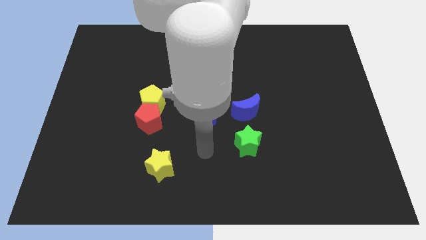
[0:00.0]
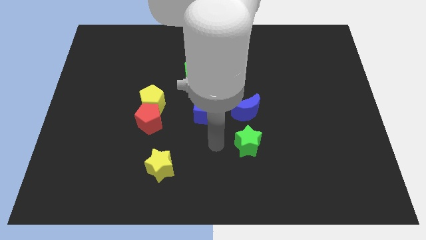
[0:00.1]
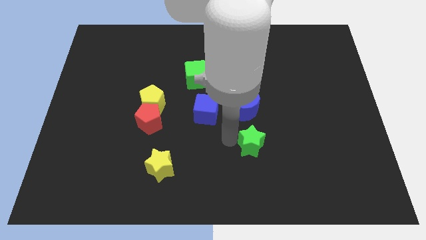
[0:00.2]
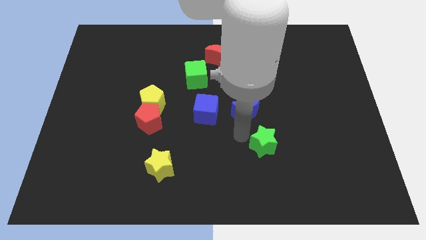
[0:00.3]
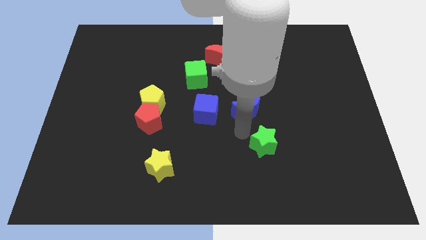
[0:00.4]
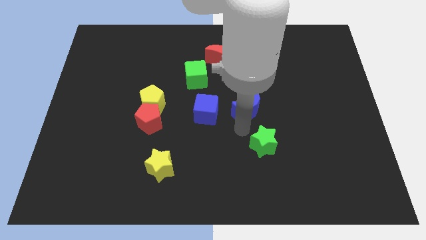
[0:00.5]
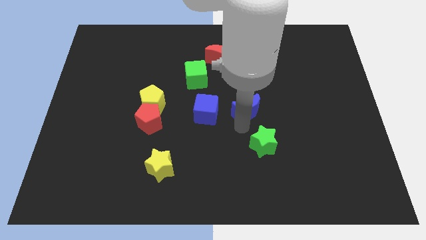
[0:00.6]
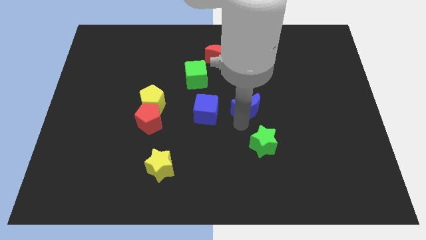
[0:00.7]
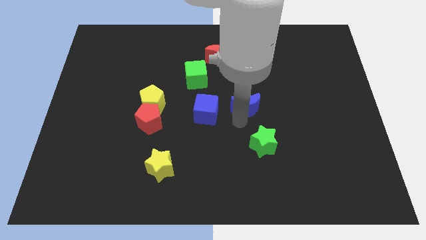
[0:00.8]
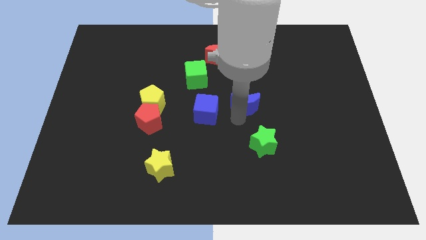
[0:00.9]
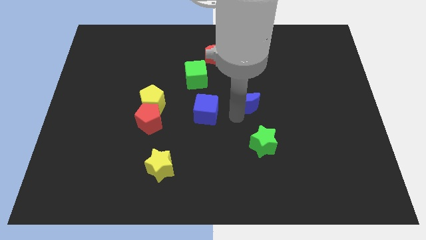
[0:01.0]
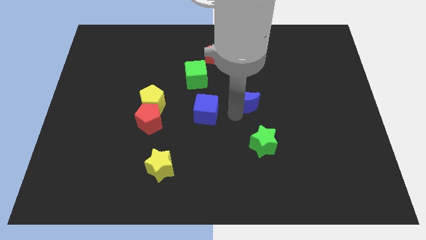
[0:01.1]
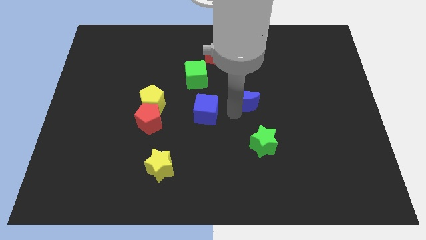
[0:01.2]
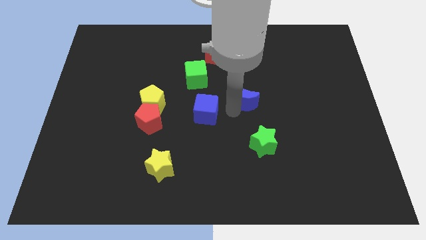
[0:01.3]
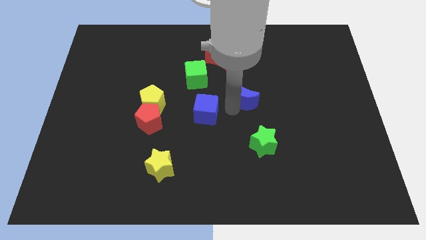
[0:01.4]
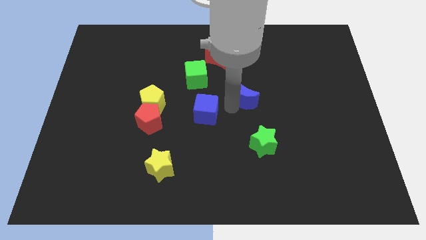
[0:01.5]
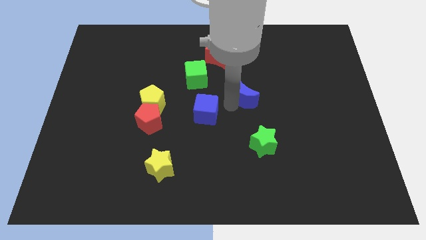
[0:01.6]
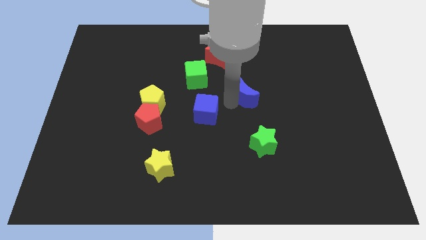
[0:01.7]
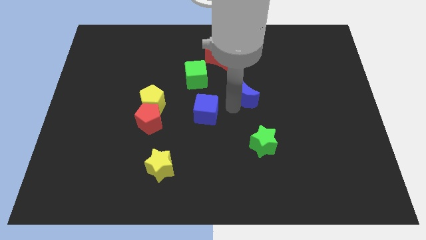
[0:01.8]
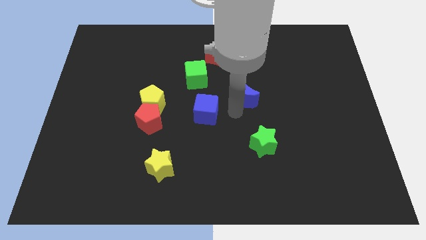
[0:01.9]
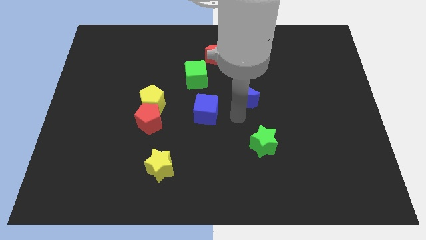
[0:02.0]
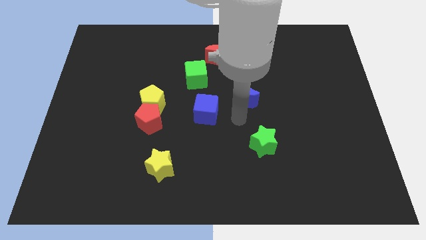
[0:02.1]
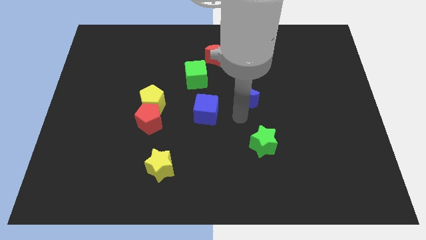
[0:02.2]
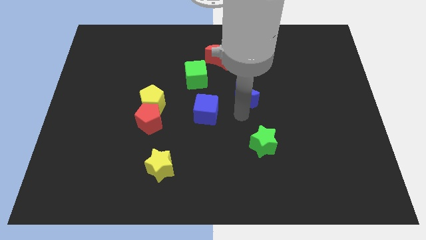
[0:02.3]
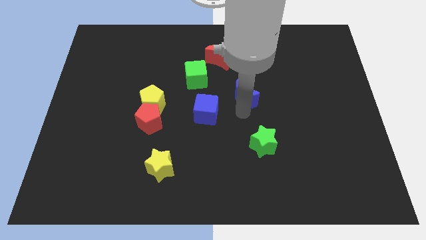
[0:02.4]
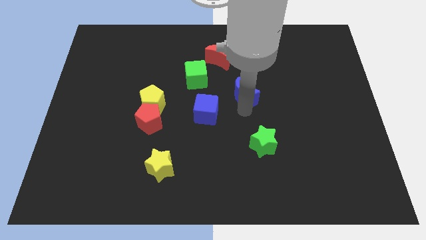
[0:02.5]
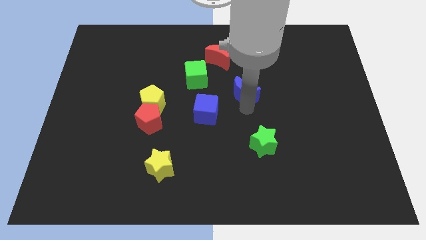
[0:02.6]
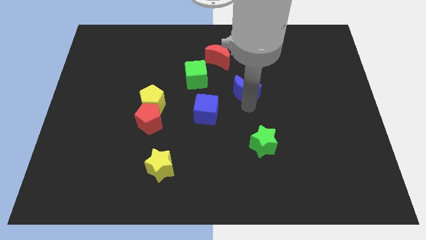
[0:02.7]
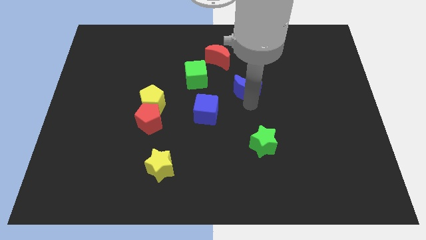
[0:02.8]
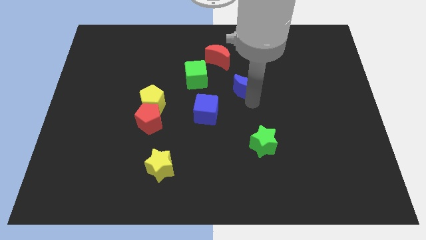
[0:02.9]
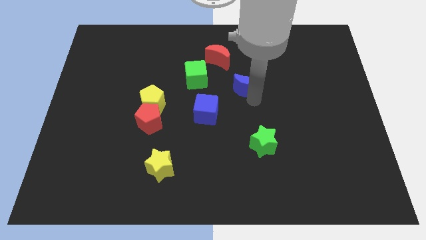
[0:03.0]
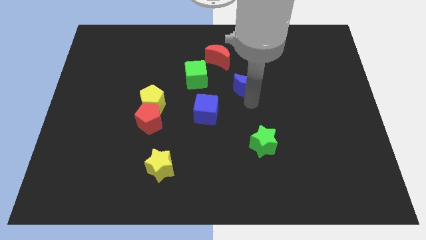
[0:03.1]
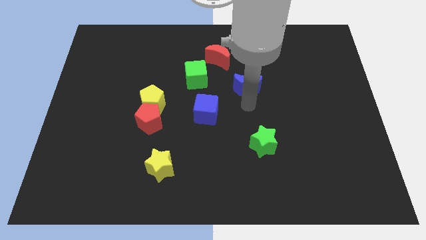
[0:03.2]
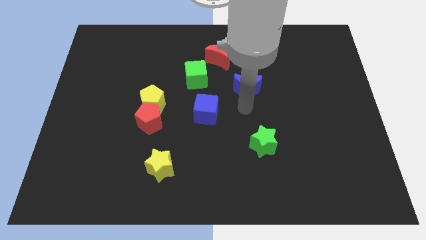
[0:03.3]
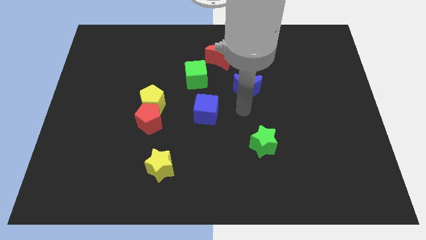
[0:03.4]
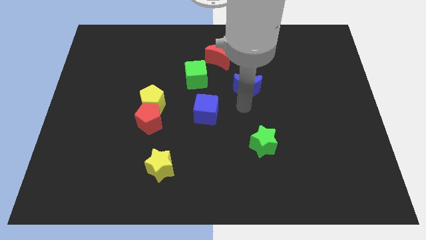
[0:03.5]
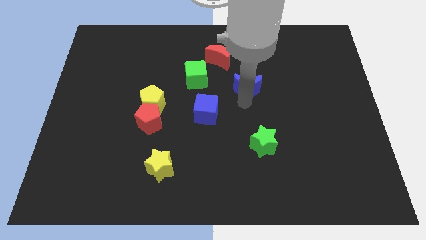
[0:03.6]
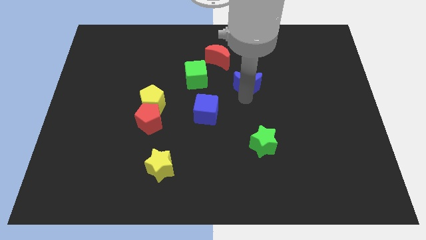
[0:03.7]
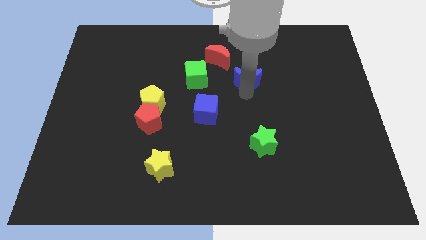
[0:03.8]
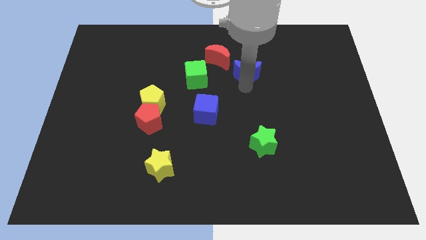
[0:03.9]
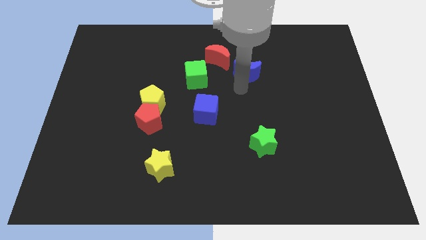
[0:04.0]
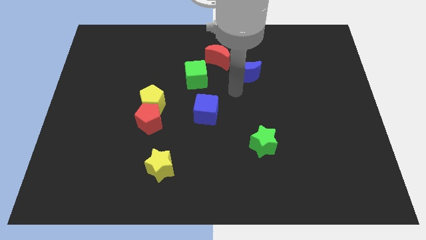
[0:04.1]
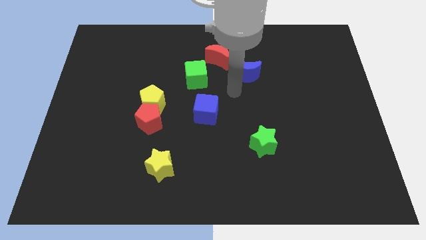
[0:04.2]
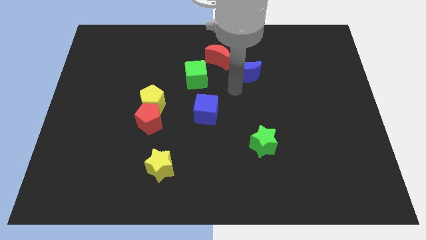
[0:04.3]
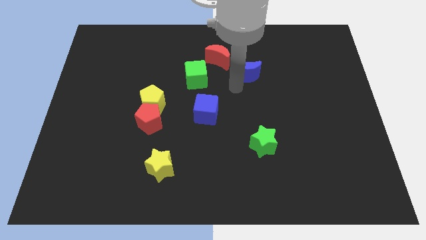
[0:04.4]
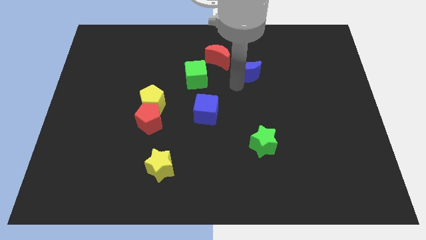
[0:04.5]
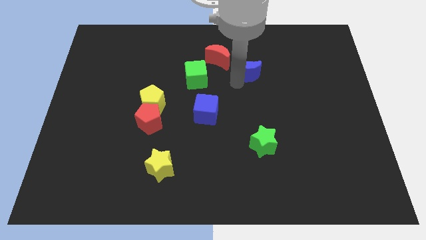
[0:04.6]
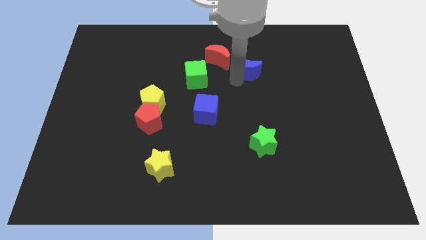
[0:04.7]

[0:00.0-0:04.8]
push the blue moon to the right side of the red moon

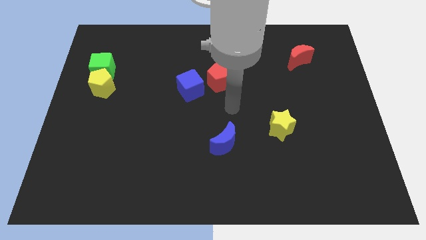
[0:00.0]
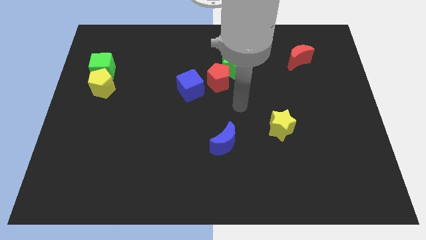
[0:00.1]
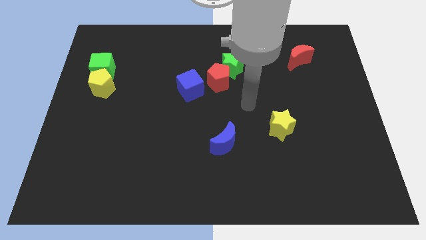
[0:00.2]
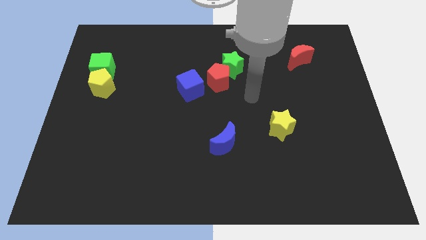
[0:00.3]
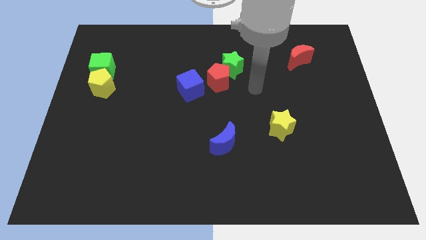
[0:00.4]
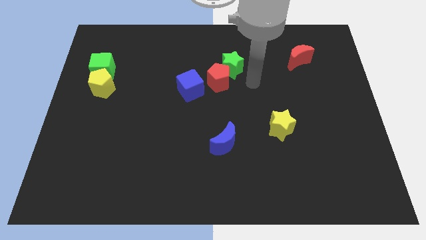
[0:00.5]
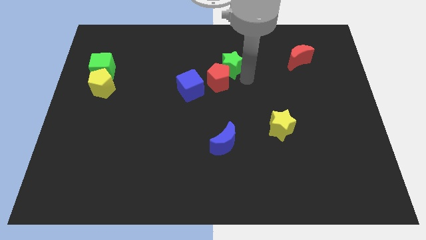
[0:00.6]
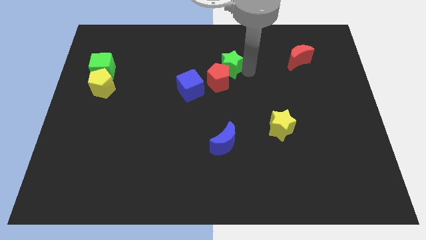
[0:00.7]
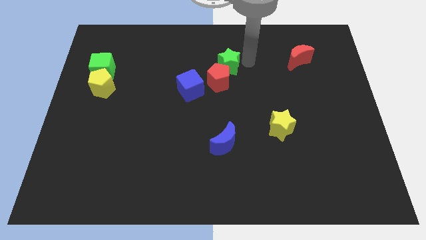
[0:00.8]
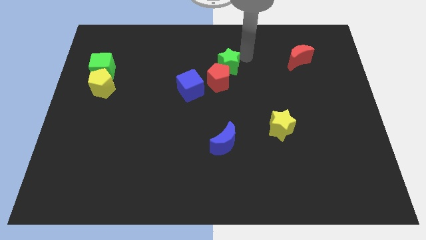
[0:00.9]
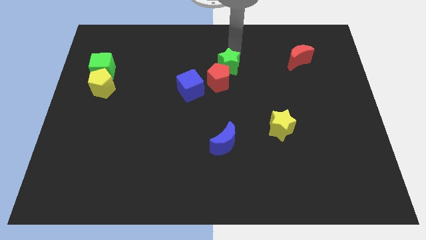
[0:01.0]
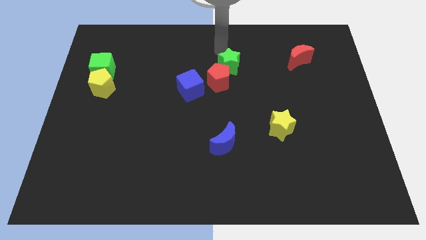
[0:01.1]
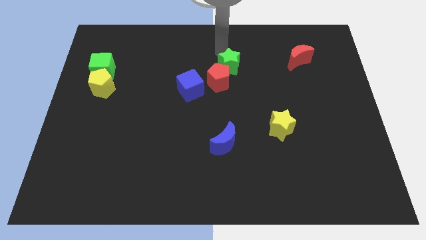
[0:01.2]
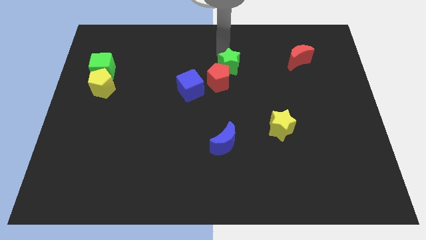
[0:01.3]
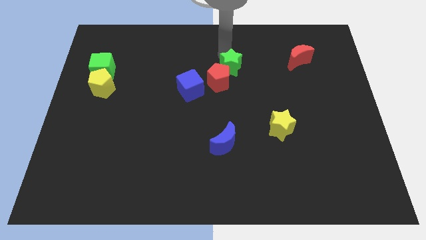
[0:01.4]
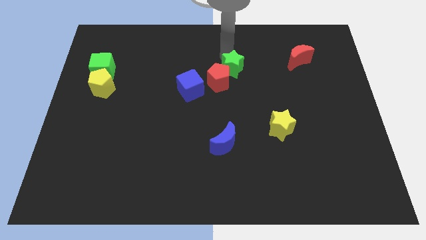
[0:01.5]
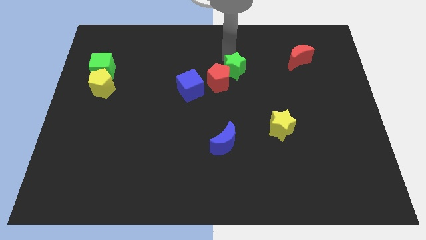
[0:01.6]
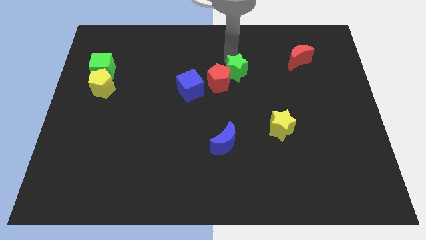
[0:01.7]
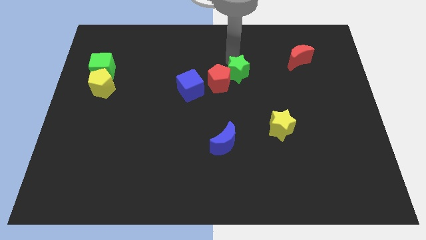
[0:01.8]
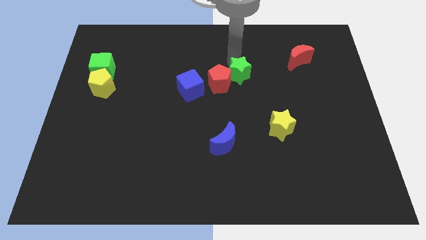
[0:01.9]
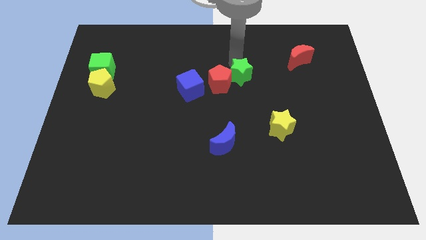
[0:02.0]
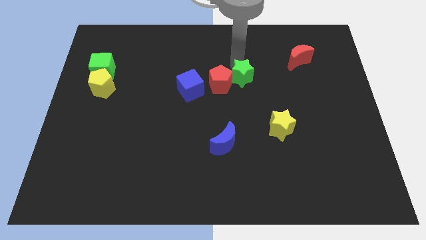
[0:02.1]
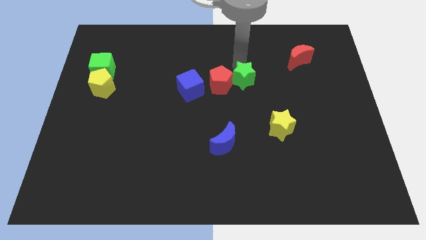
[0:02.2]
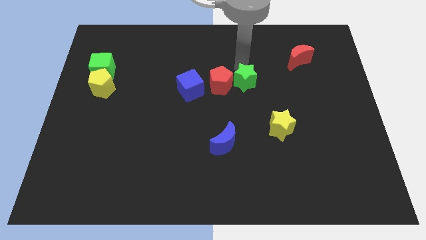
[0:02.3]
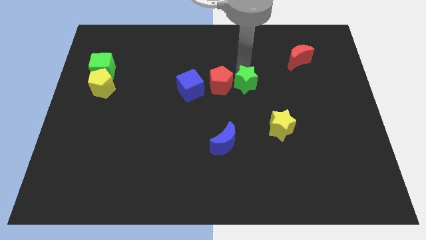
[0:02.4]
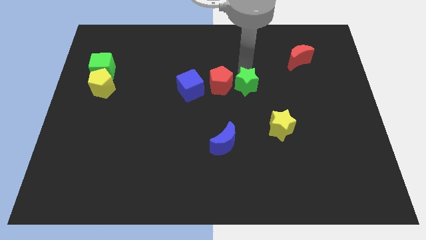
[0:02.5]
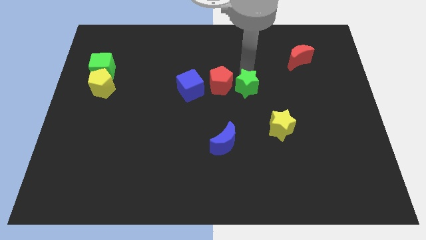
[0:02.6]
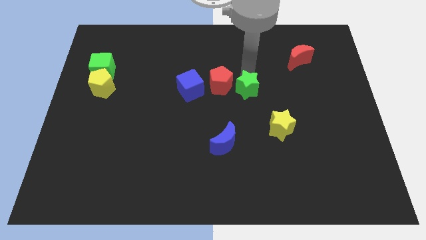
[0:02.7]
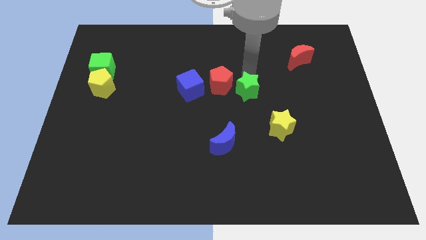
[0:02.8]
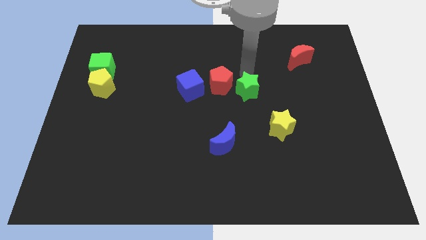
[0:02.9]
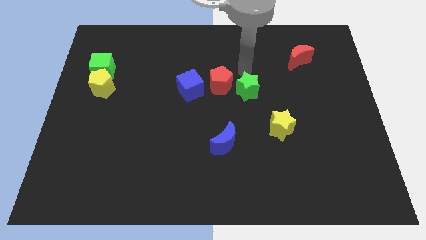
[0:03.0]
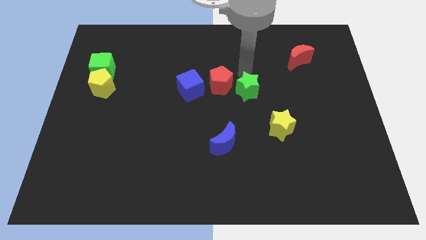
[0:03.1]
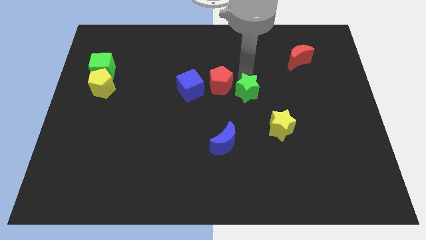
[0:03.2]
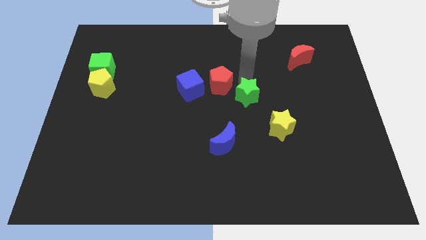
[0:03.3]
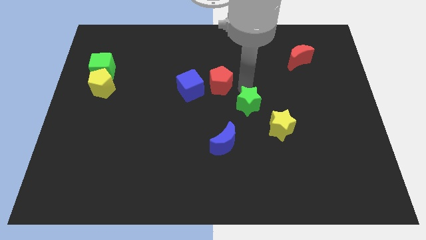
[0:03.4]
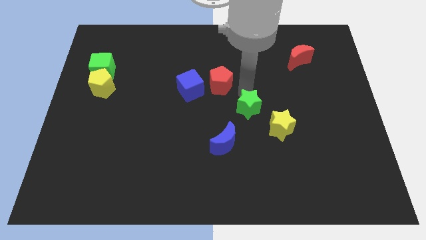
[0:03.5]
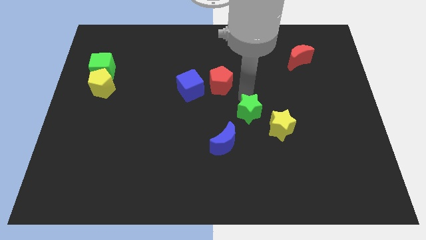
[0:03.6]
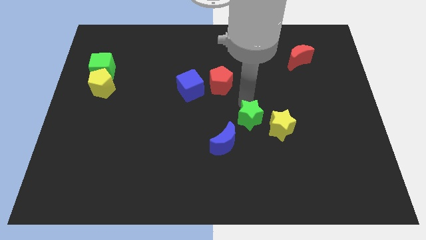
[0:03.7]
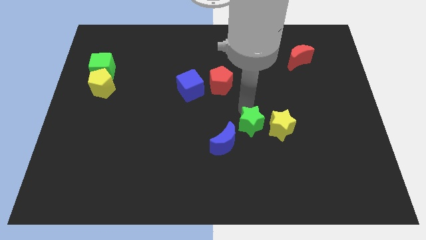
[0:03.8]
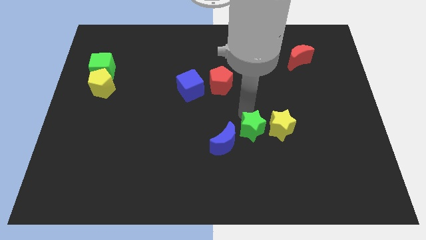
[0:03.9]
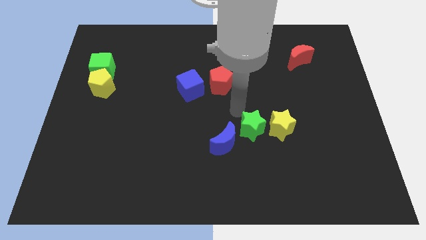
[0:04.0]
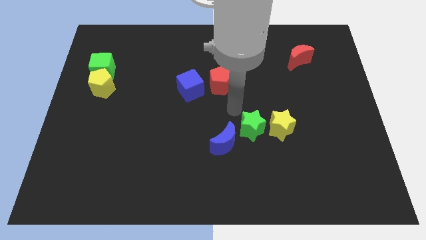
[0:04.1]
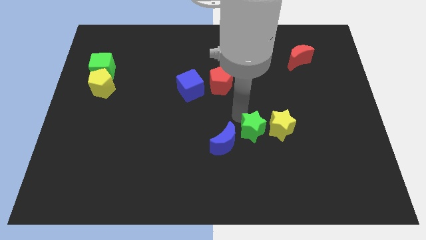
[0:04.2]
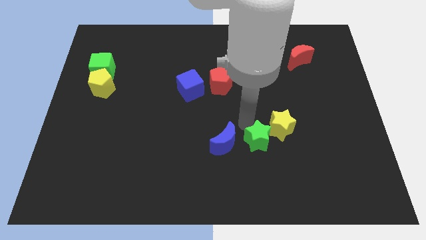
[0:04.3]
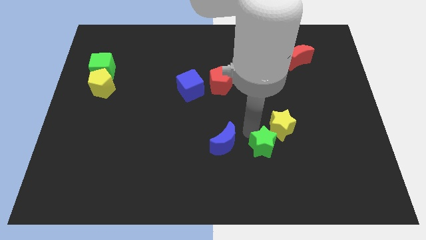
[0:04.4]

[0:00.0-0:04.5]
push the green star to the bottom side of the yellow star
